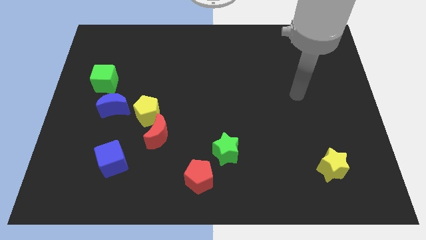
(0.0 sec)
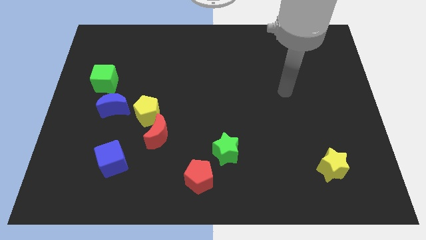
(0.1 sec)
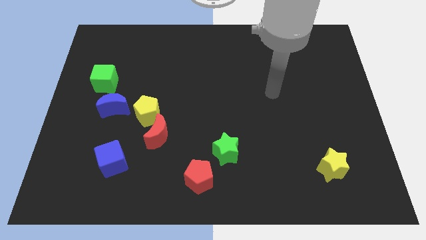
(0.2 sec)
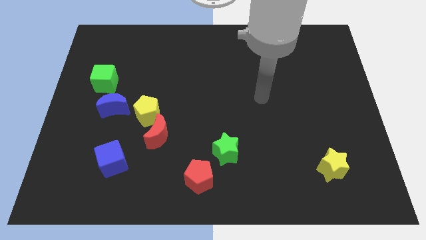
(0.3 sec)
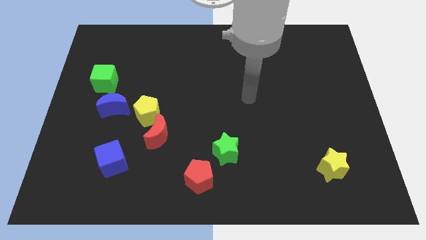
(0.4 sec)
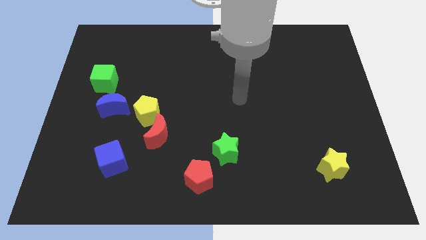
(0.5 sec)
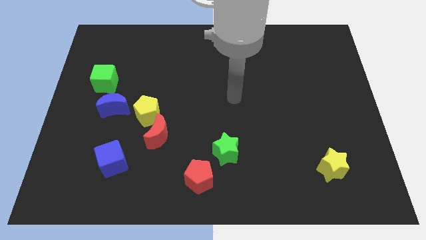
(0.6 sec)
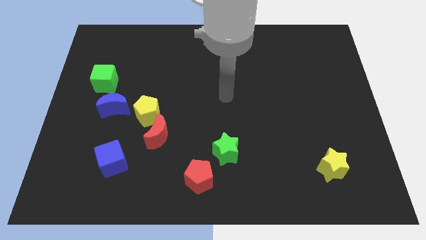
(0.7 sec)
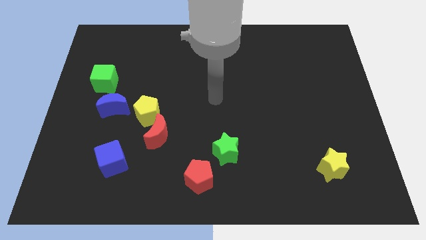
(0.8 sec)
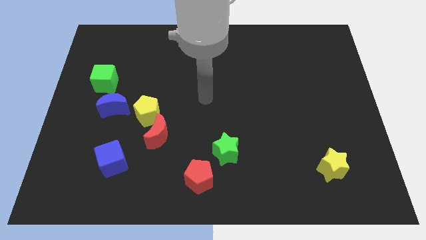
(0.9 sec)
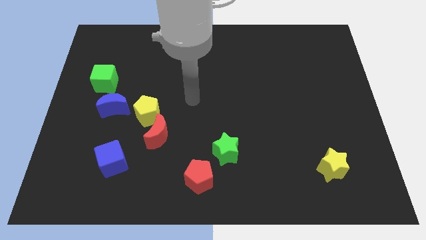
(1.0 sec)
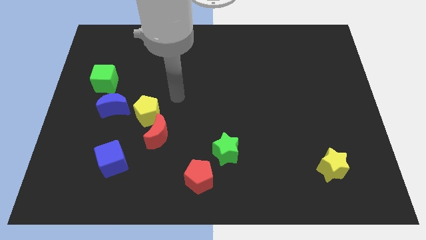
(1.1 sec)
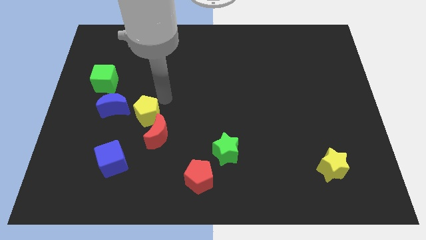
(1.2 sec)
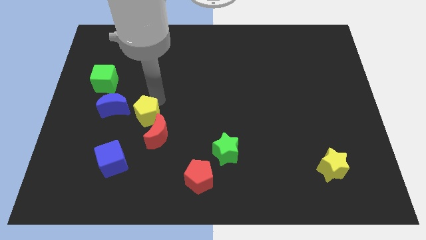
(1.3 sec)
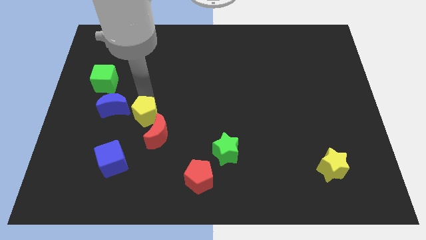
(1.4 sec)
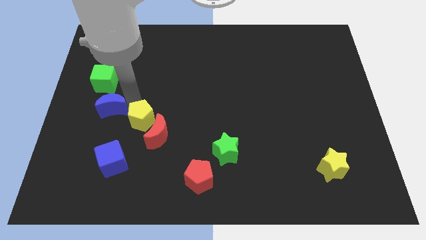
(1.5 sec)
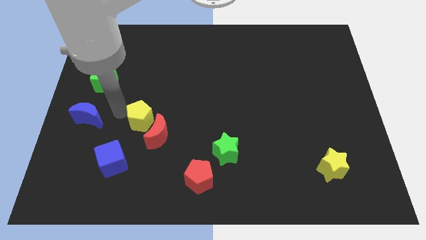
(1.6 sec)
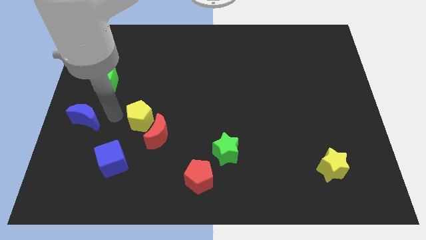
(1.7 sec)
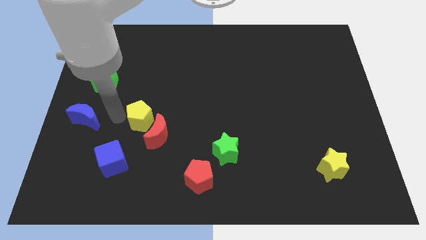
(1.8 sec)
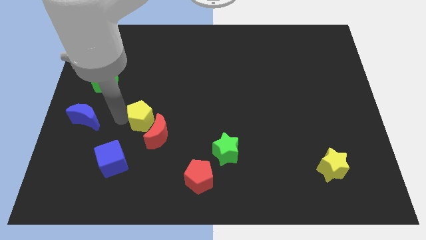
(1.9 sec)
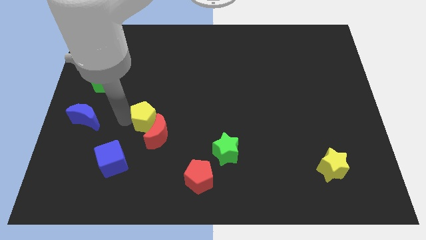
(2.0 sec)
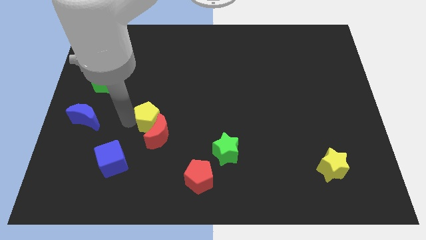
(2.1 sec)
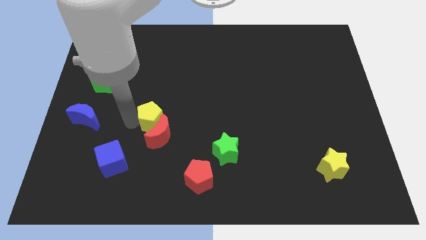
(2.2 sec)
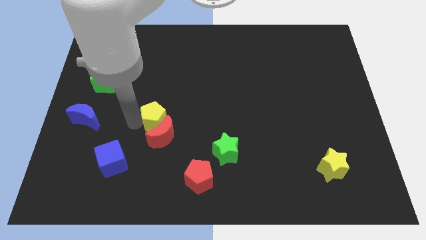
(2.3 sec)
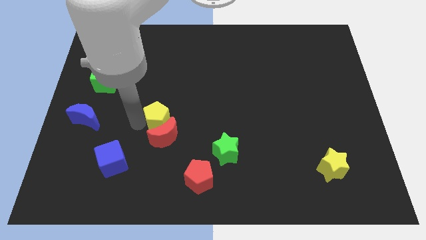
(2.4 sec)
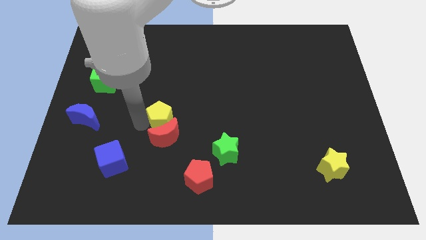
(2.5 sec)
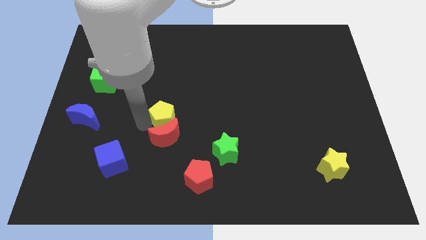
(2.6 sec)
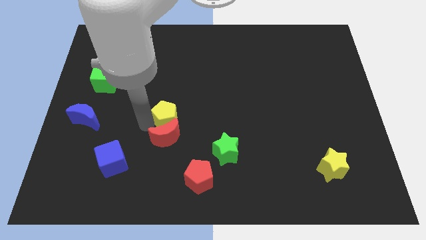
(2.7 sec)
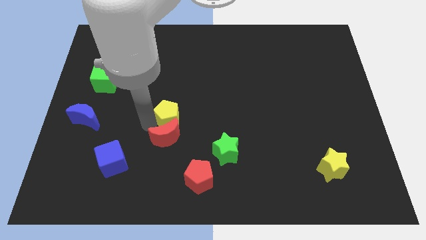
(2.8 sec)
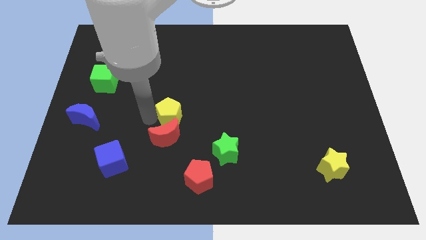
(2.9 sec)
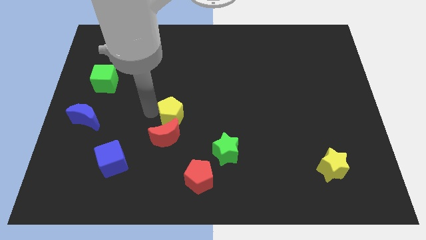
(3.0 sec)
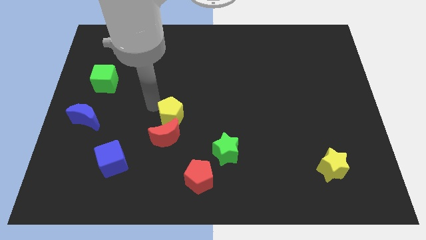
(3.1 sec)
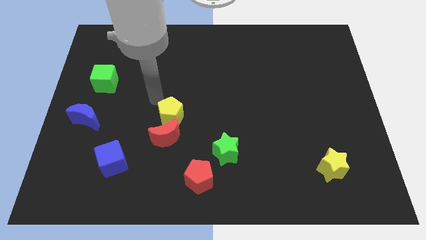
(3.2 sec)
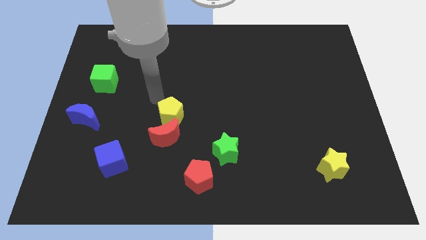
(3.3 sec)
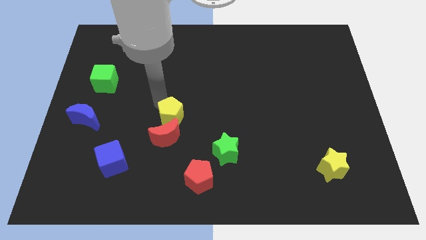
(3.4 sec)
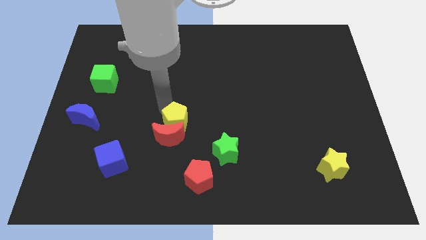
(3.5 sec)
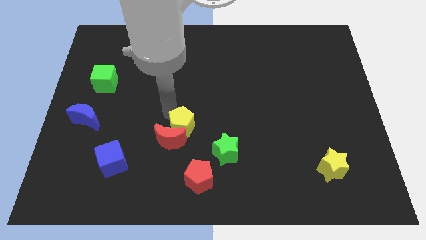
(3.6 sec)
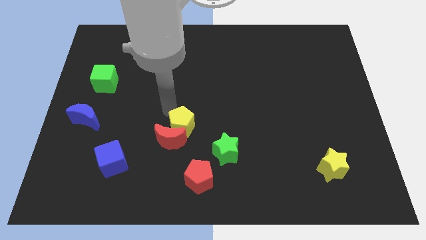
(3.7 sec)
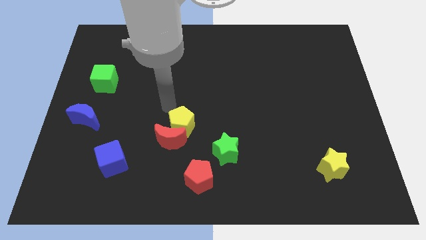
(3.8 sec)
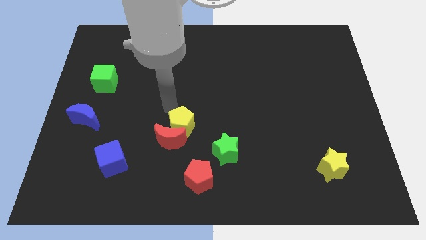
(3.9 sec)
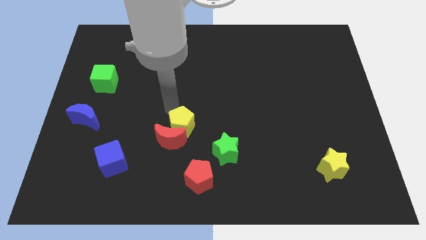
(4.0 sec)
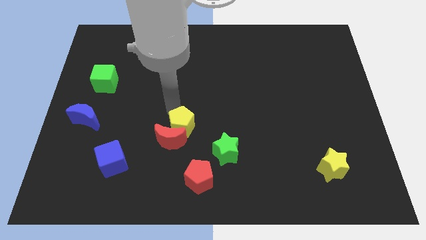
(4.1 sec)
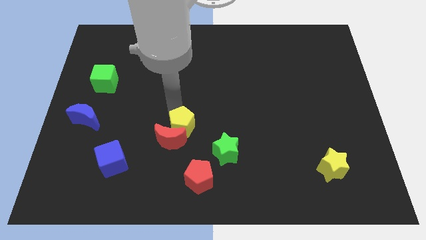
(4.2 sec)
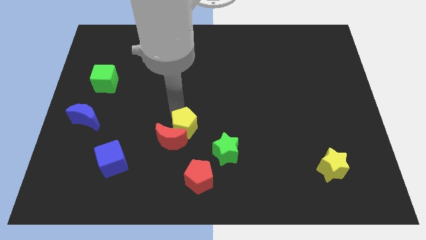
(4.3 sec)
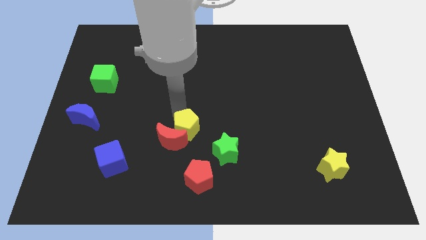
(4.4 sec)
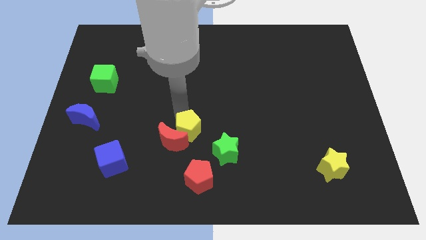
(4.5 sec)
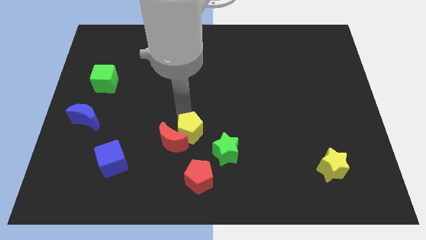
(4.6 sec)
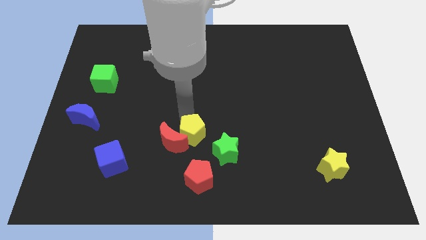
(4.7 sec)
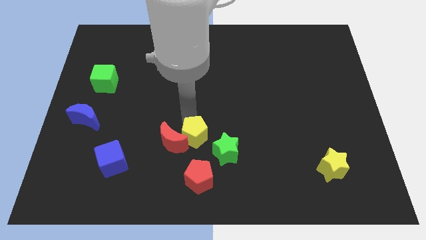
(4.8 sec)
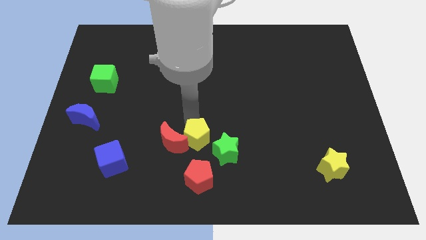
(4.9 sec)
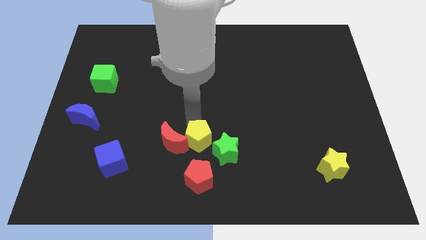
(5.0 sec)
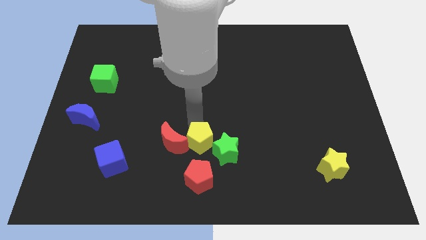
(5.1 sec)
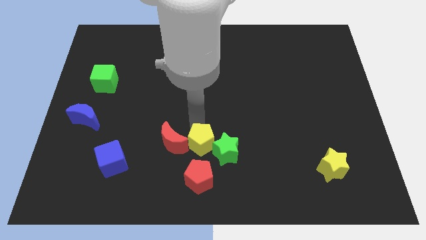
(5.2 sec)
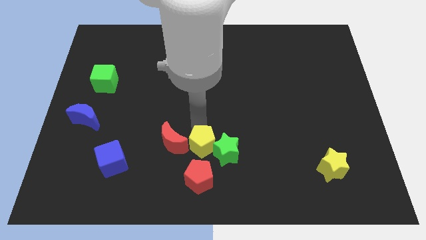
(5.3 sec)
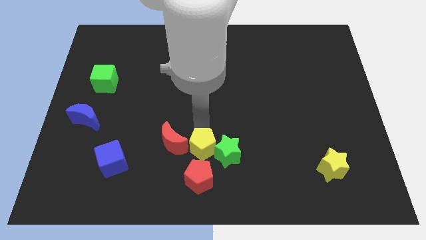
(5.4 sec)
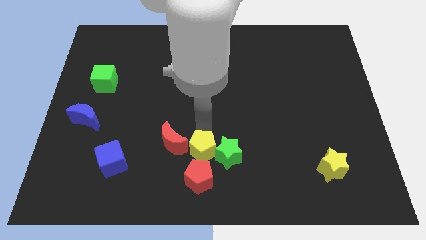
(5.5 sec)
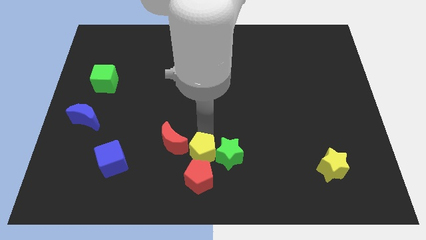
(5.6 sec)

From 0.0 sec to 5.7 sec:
put the yellow pentagon towards the red pentagon

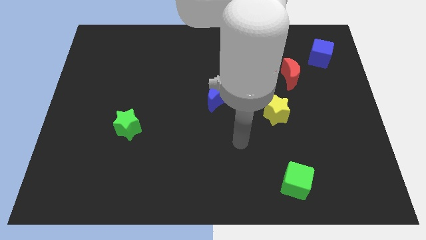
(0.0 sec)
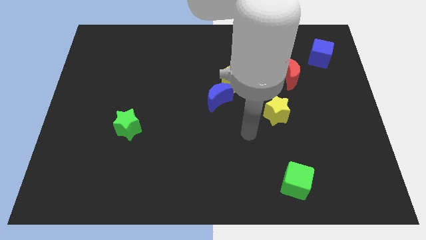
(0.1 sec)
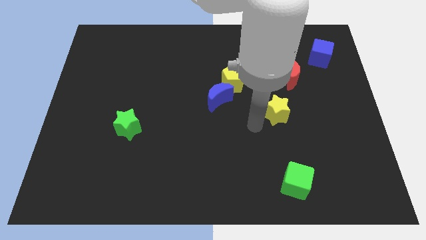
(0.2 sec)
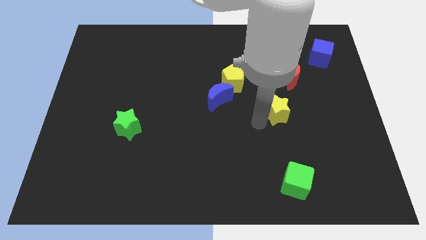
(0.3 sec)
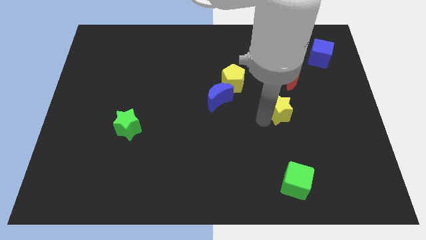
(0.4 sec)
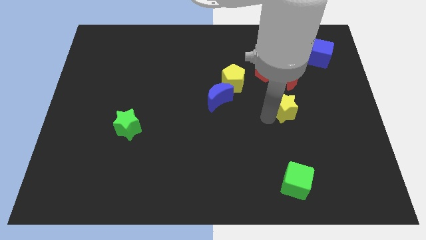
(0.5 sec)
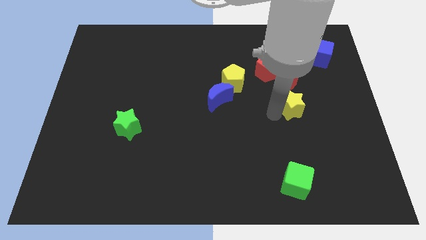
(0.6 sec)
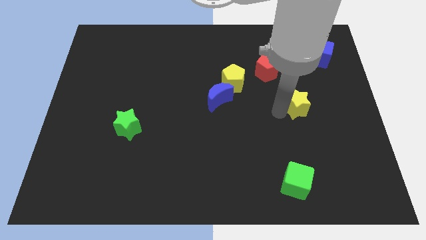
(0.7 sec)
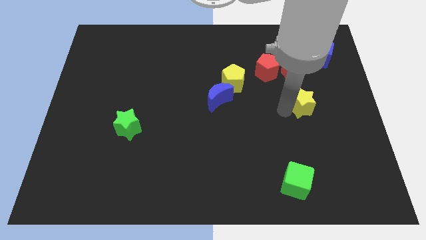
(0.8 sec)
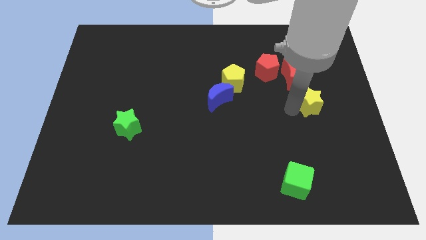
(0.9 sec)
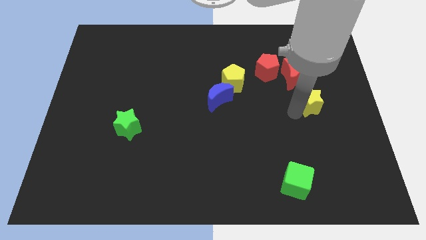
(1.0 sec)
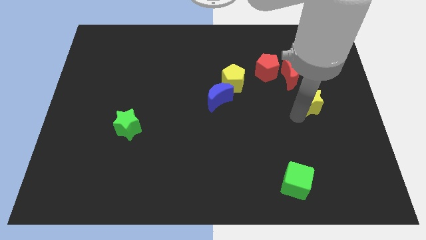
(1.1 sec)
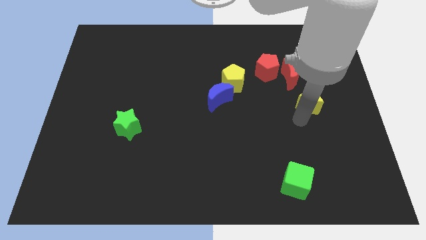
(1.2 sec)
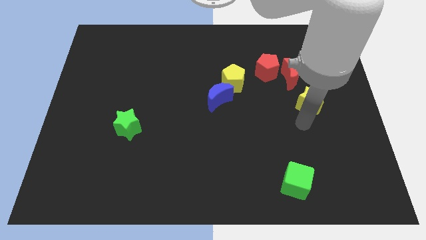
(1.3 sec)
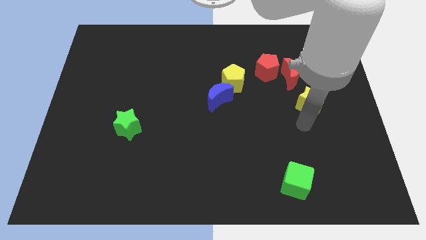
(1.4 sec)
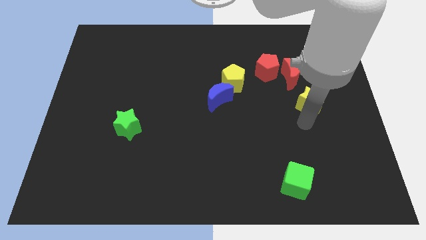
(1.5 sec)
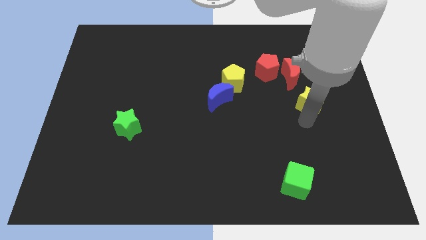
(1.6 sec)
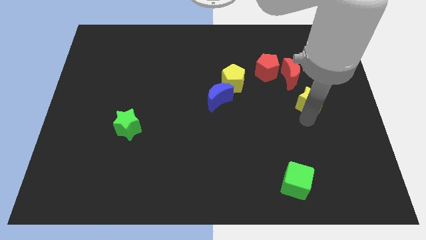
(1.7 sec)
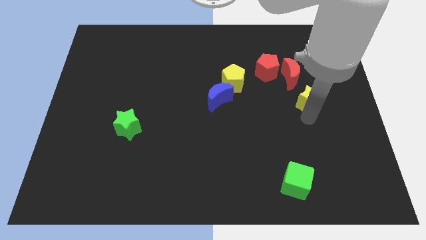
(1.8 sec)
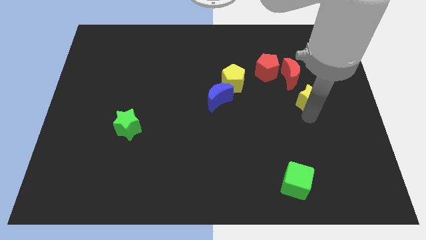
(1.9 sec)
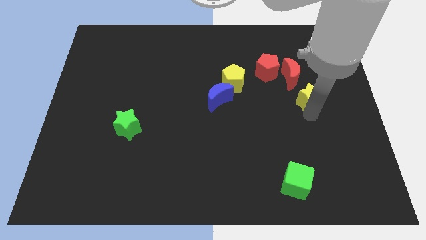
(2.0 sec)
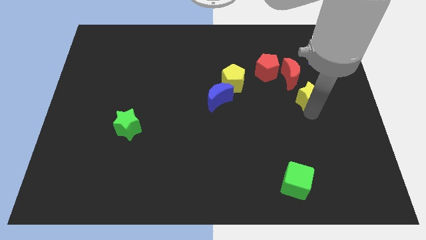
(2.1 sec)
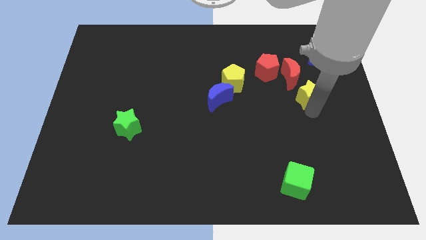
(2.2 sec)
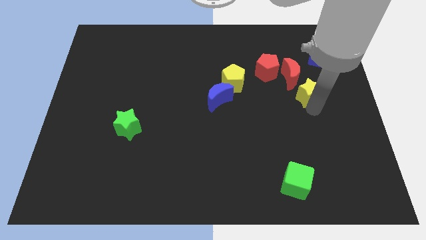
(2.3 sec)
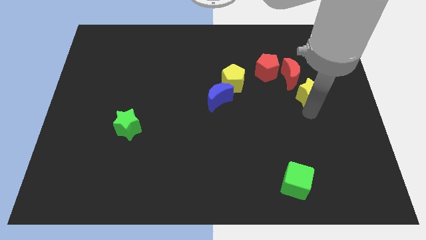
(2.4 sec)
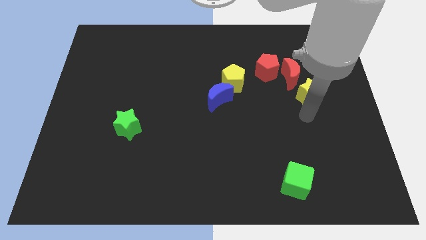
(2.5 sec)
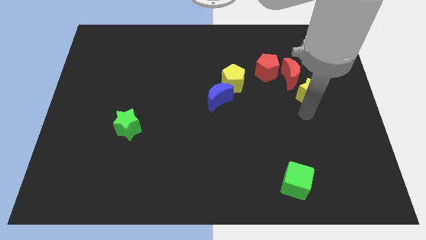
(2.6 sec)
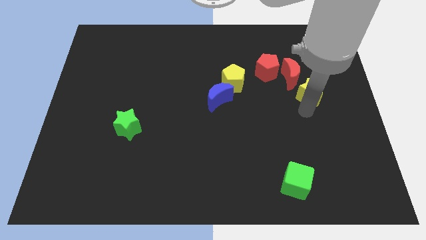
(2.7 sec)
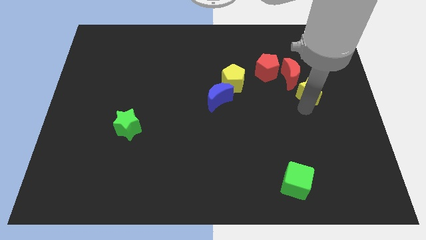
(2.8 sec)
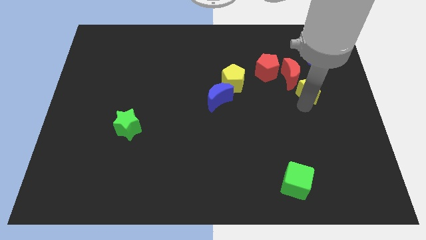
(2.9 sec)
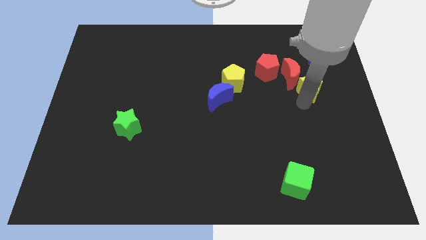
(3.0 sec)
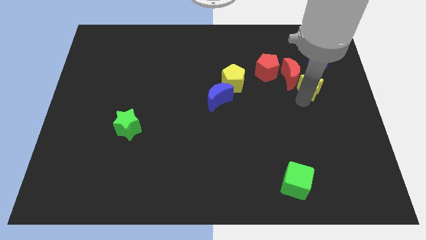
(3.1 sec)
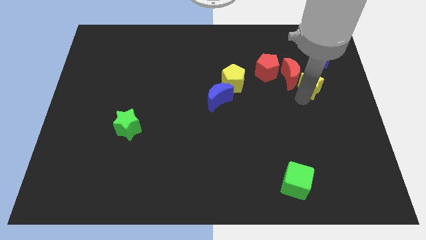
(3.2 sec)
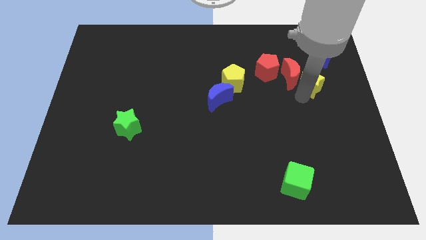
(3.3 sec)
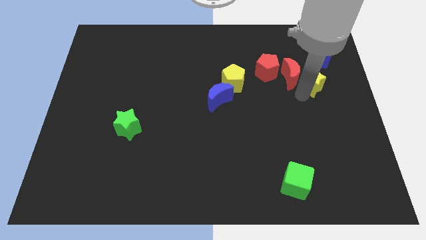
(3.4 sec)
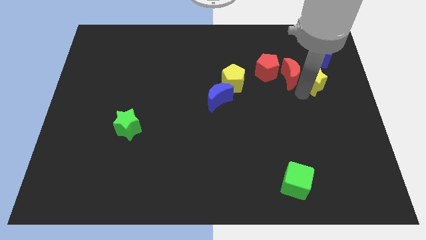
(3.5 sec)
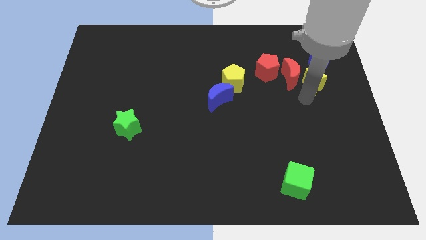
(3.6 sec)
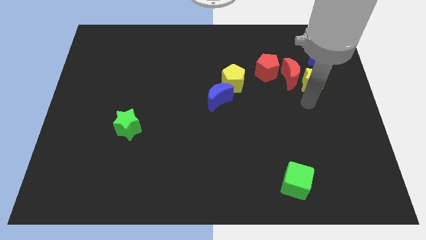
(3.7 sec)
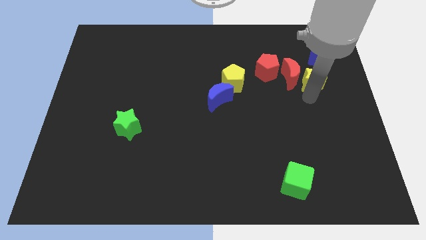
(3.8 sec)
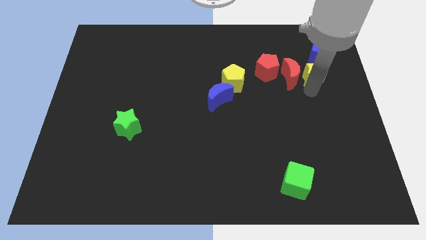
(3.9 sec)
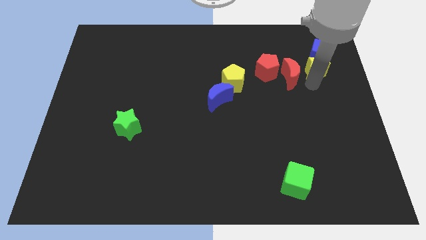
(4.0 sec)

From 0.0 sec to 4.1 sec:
push the yellow star towards the blue cube
